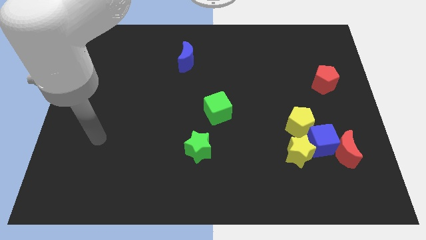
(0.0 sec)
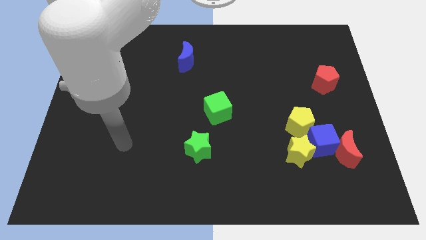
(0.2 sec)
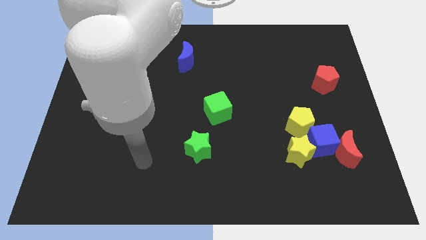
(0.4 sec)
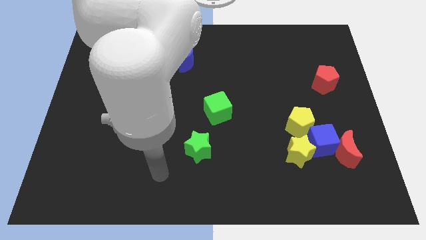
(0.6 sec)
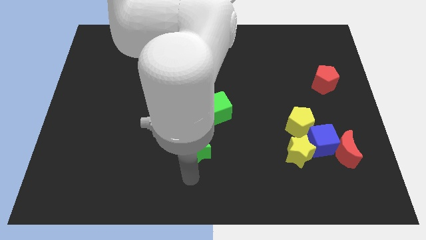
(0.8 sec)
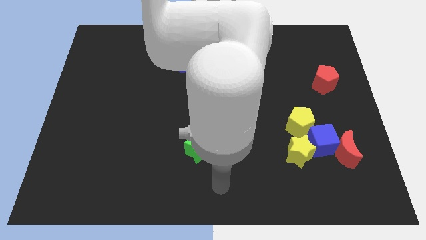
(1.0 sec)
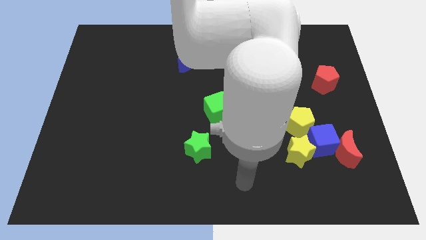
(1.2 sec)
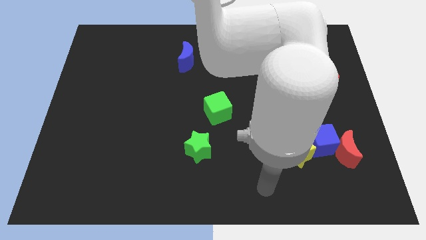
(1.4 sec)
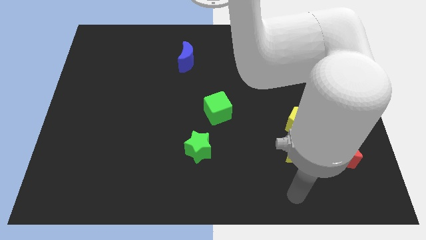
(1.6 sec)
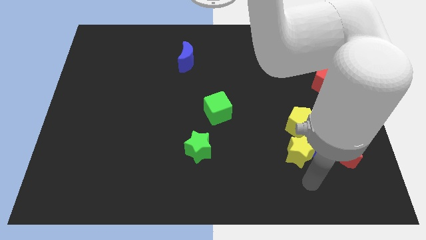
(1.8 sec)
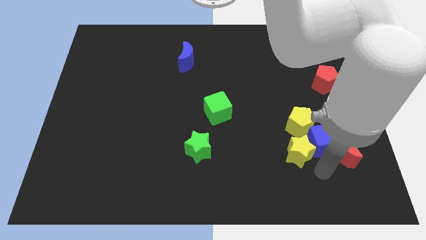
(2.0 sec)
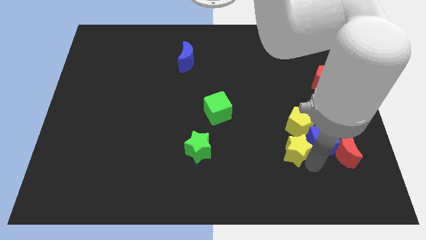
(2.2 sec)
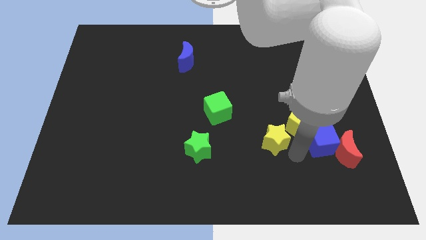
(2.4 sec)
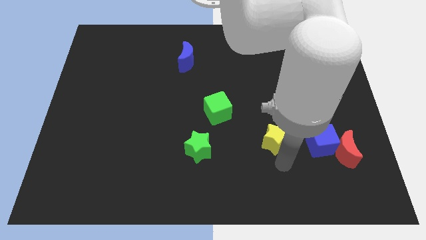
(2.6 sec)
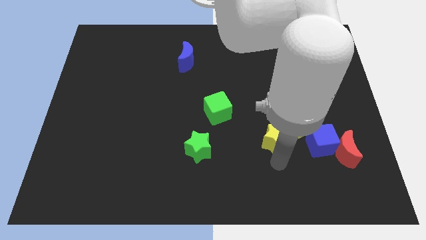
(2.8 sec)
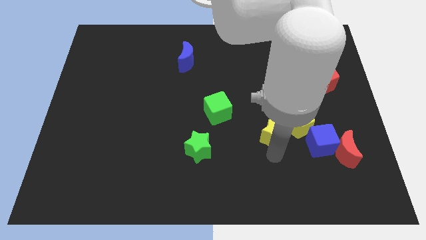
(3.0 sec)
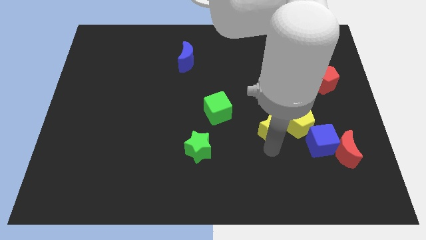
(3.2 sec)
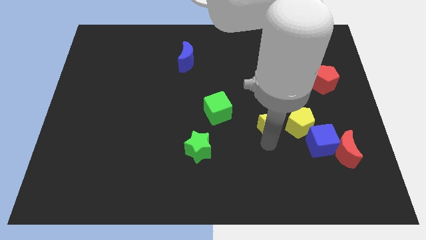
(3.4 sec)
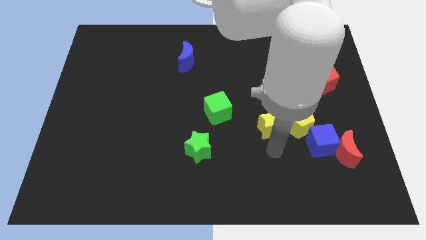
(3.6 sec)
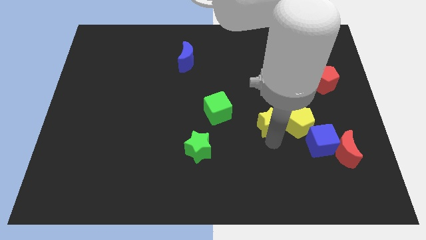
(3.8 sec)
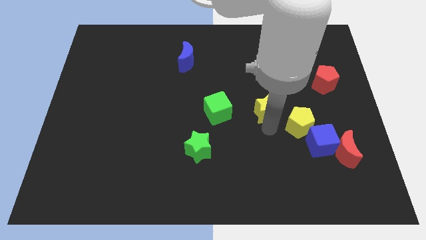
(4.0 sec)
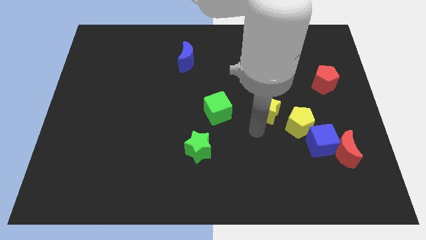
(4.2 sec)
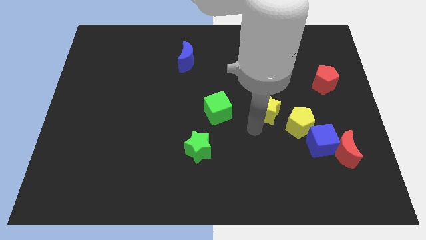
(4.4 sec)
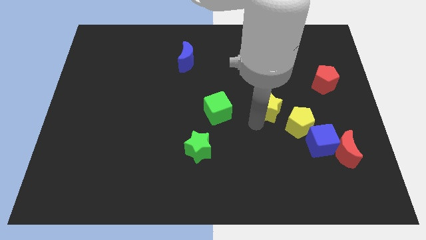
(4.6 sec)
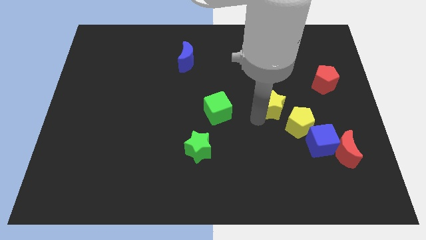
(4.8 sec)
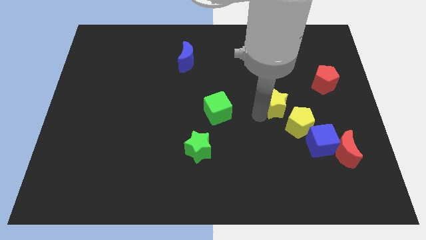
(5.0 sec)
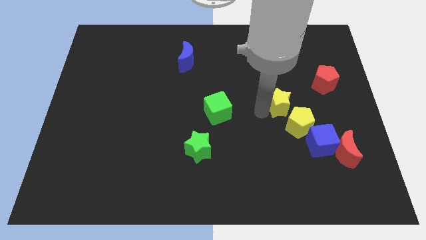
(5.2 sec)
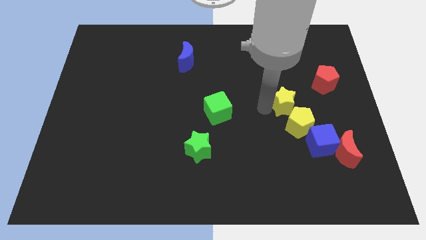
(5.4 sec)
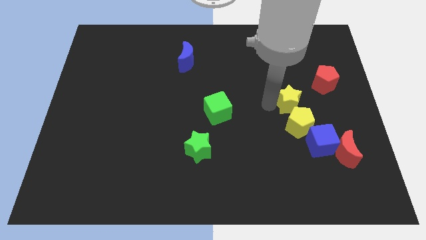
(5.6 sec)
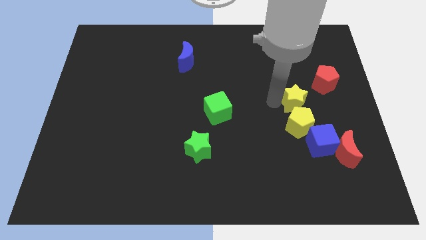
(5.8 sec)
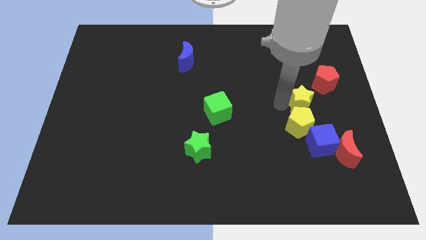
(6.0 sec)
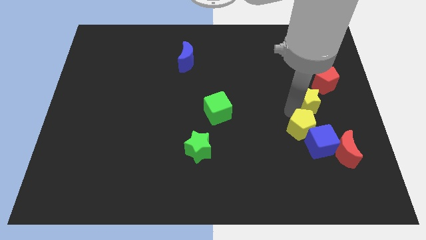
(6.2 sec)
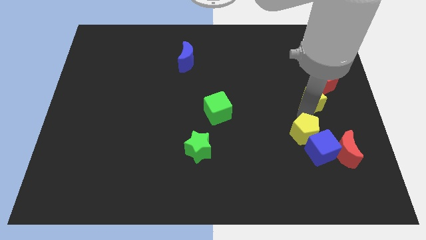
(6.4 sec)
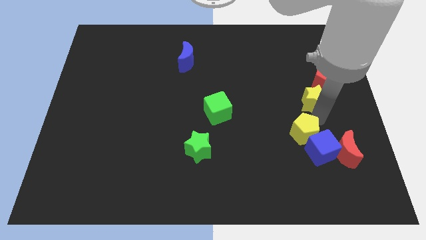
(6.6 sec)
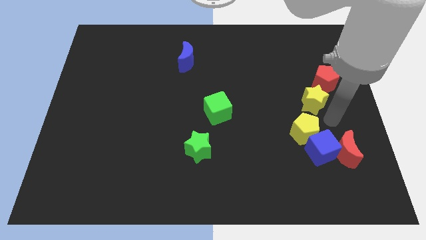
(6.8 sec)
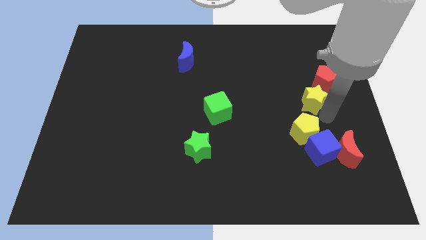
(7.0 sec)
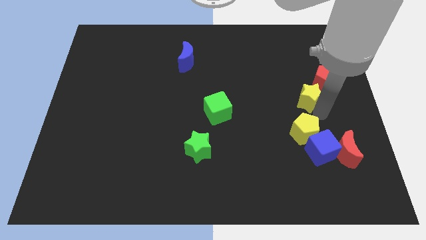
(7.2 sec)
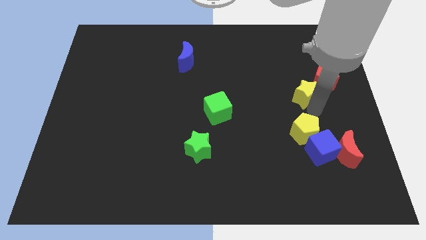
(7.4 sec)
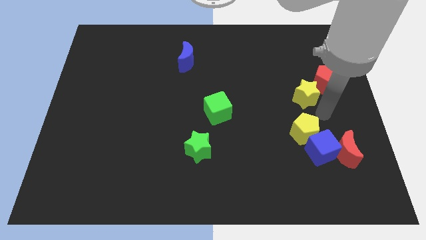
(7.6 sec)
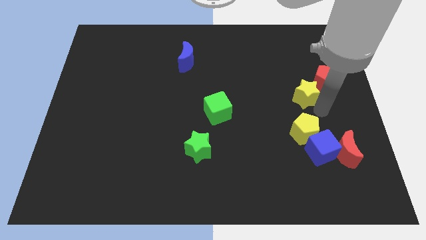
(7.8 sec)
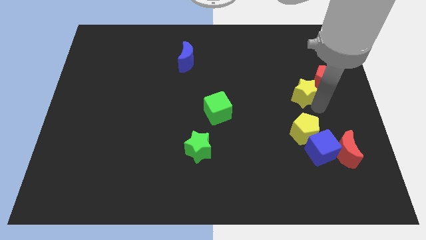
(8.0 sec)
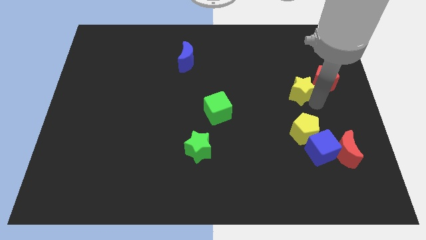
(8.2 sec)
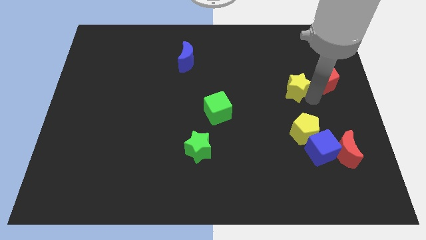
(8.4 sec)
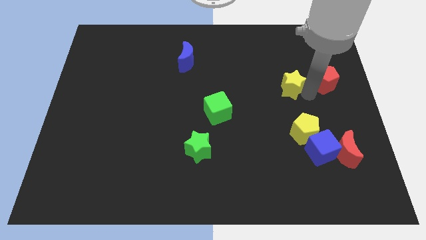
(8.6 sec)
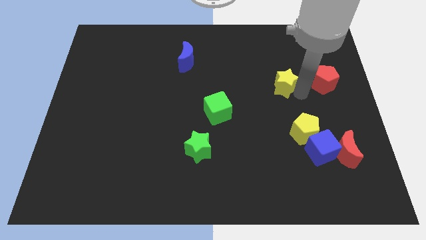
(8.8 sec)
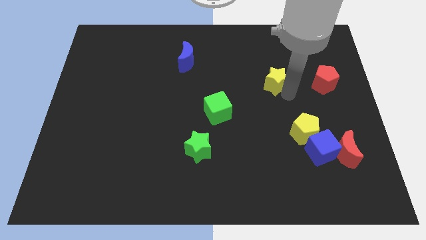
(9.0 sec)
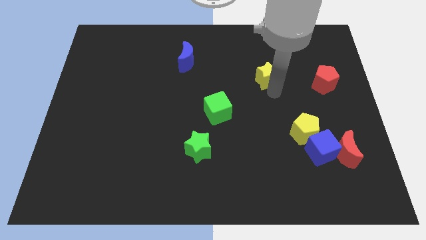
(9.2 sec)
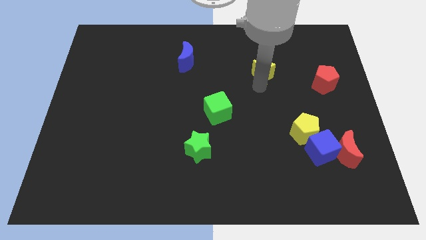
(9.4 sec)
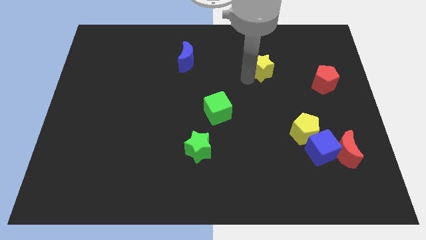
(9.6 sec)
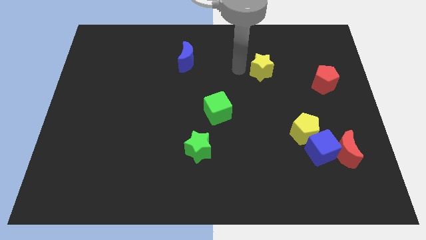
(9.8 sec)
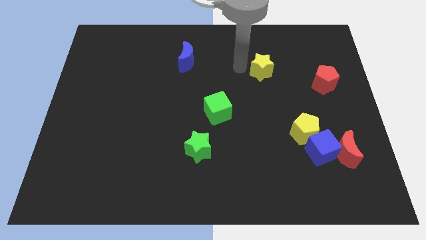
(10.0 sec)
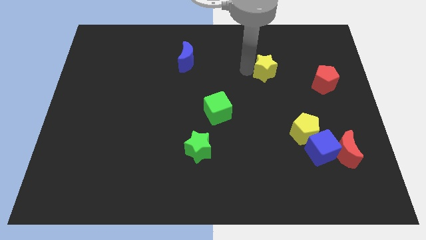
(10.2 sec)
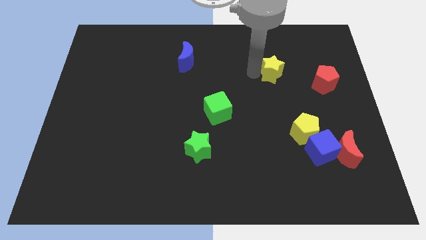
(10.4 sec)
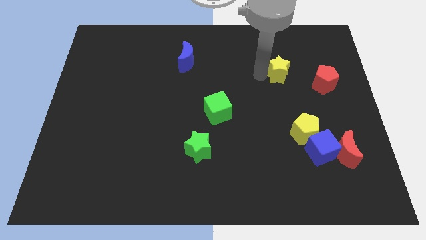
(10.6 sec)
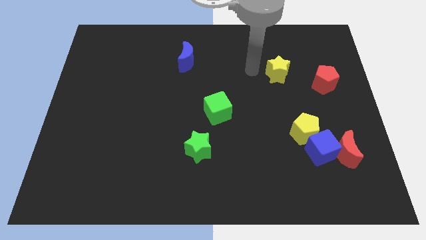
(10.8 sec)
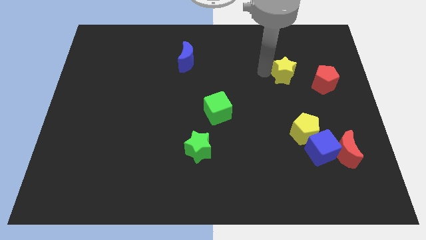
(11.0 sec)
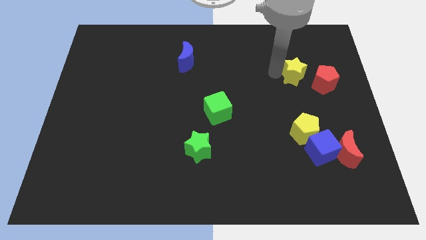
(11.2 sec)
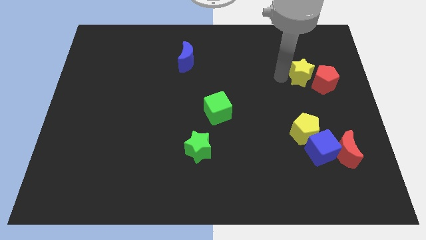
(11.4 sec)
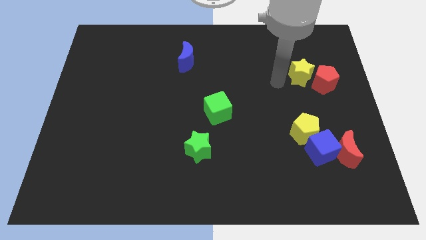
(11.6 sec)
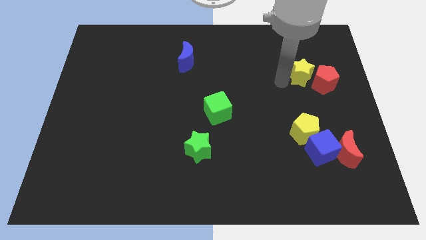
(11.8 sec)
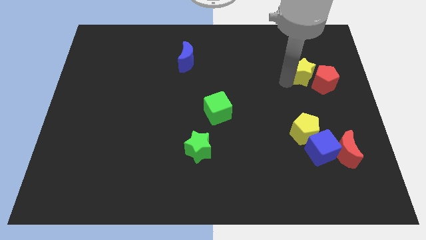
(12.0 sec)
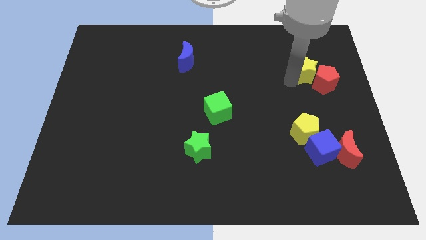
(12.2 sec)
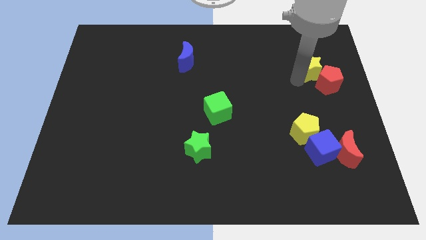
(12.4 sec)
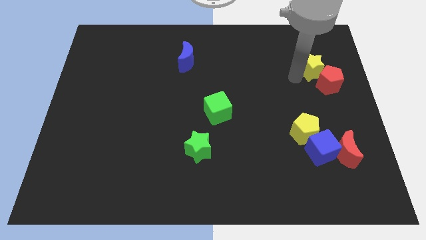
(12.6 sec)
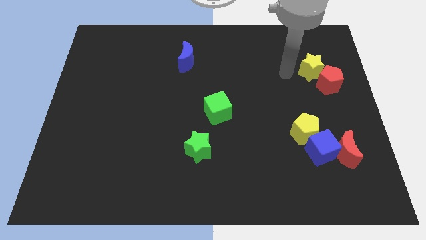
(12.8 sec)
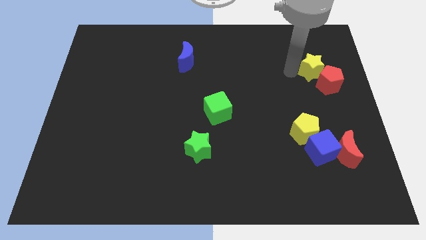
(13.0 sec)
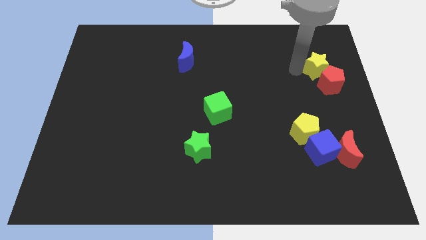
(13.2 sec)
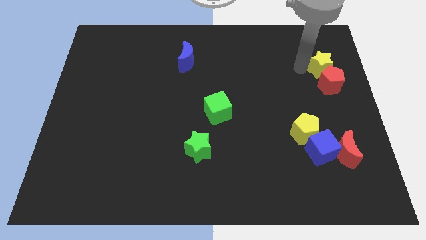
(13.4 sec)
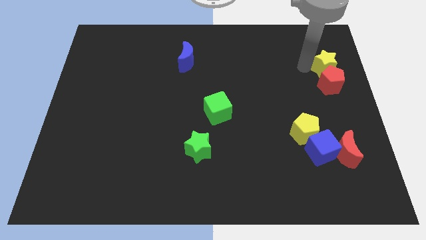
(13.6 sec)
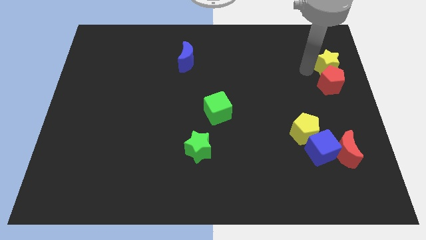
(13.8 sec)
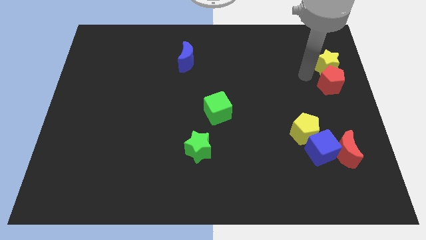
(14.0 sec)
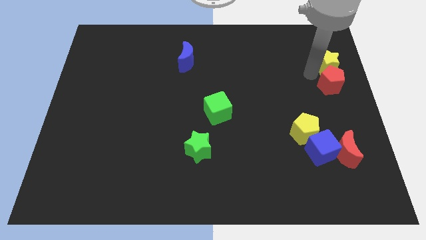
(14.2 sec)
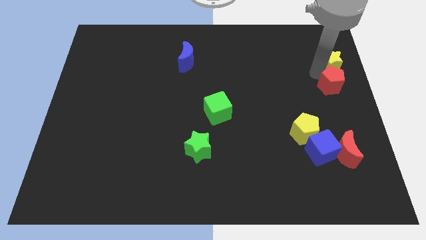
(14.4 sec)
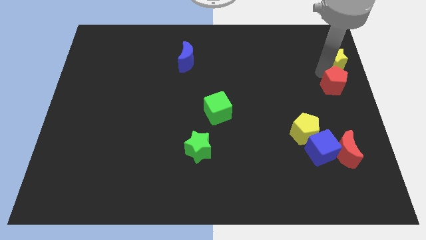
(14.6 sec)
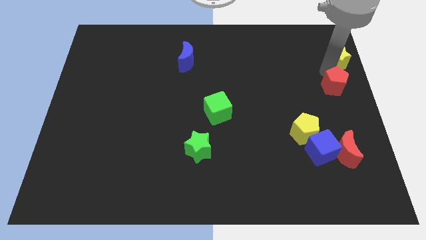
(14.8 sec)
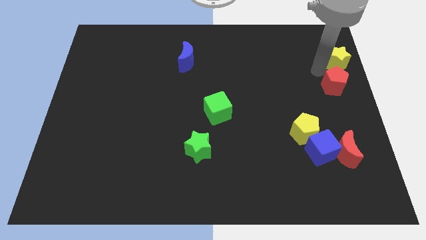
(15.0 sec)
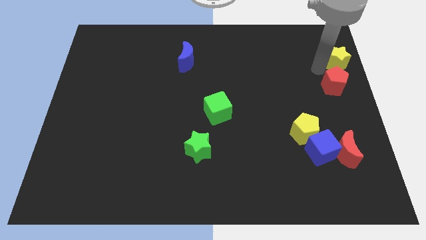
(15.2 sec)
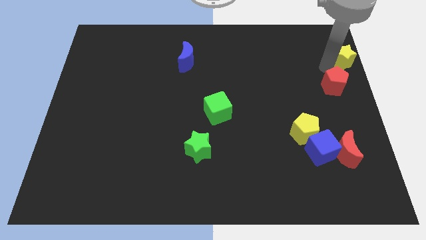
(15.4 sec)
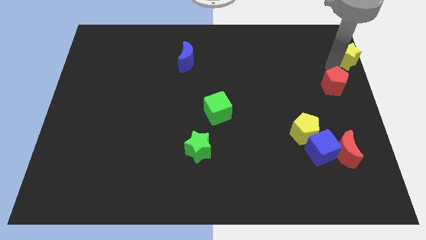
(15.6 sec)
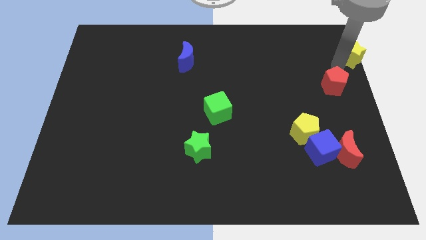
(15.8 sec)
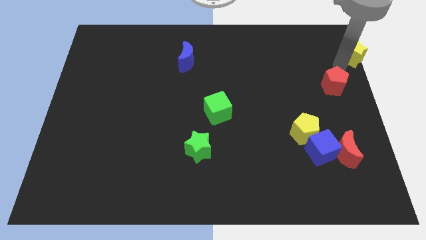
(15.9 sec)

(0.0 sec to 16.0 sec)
slide the yellow star to the top right
